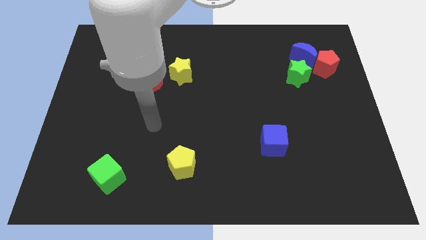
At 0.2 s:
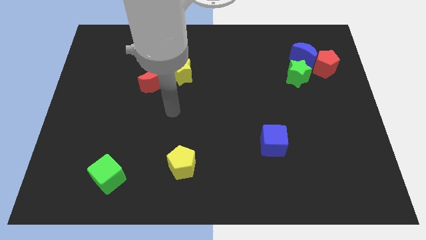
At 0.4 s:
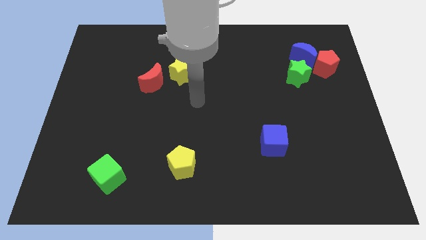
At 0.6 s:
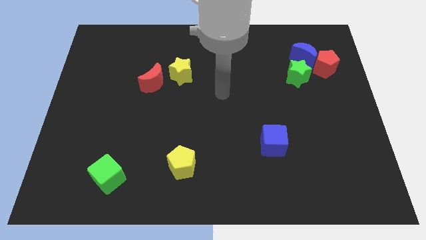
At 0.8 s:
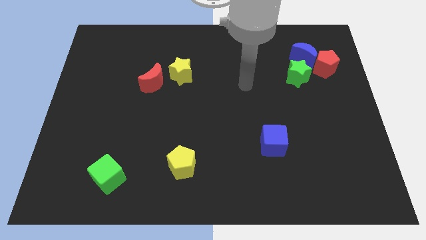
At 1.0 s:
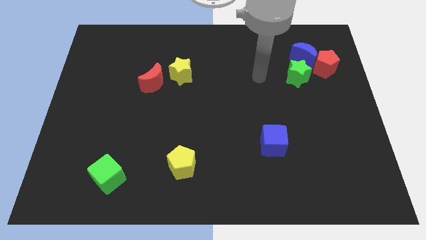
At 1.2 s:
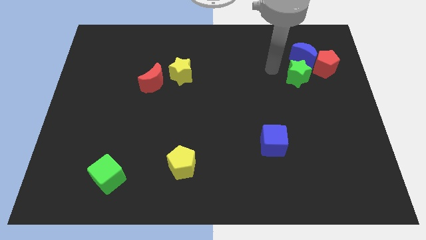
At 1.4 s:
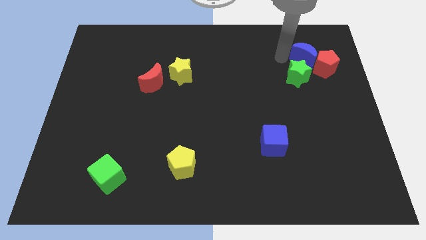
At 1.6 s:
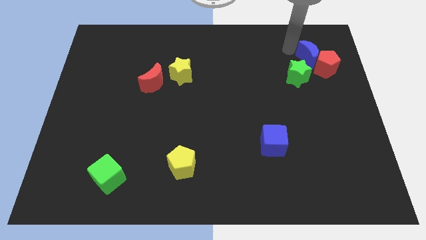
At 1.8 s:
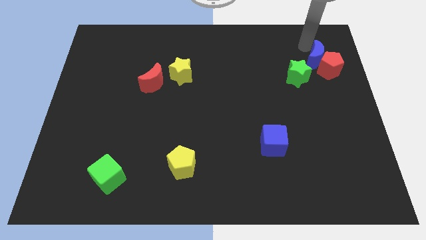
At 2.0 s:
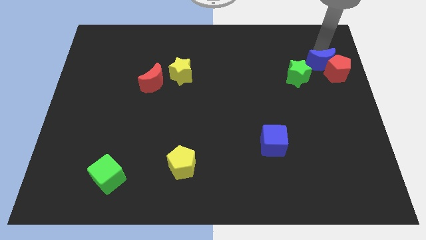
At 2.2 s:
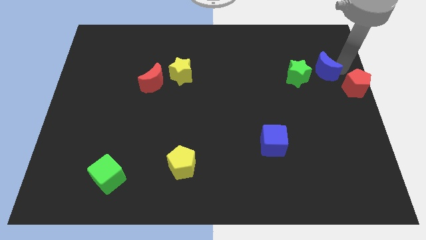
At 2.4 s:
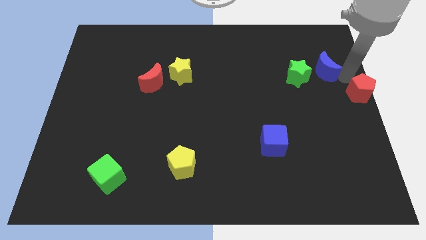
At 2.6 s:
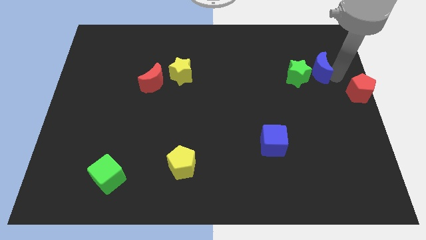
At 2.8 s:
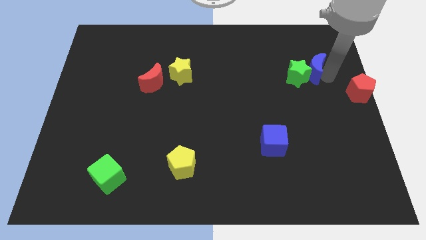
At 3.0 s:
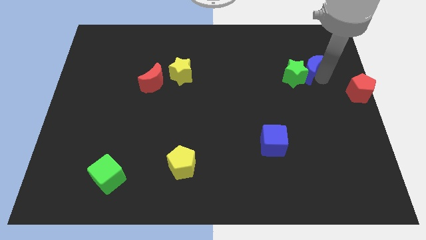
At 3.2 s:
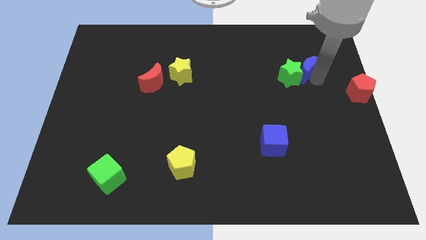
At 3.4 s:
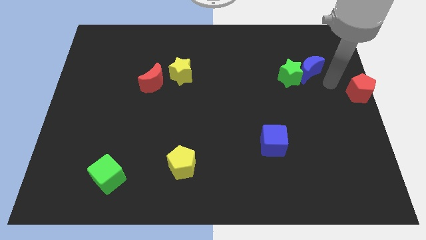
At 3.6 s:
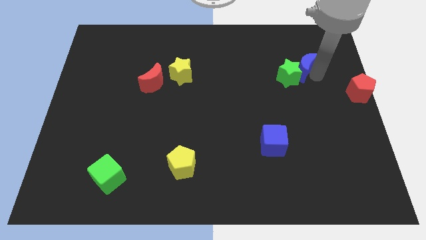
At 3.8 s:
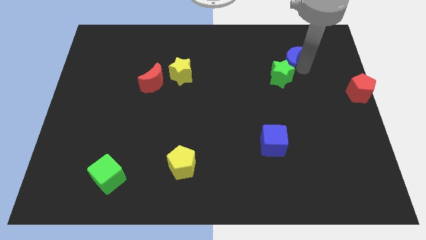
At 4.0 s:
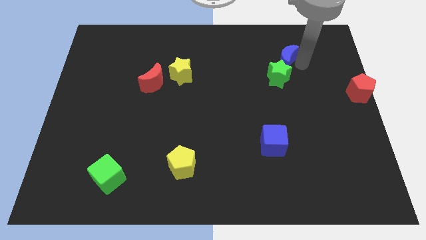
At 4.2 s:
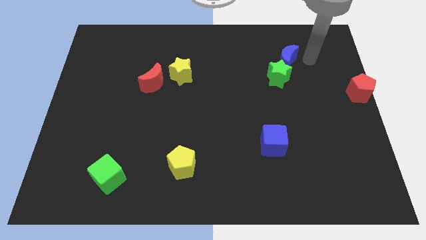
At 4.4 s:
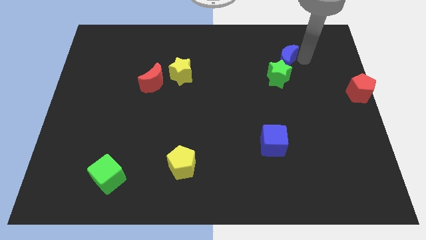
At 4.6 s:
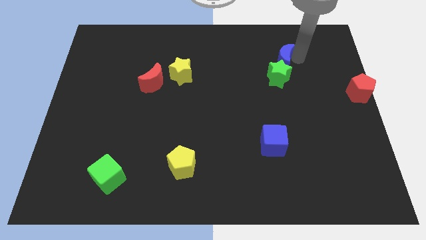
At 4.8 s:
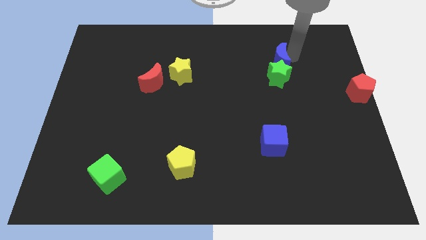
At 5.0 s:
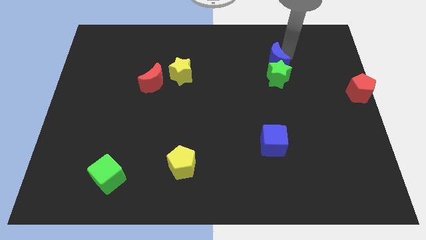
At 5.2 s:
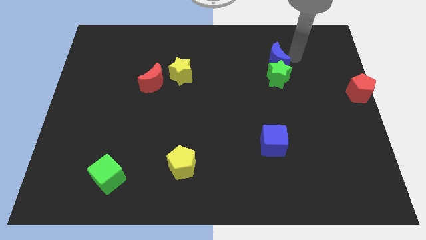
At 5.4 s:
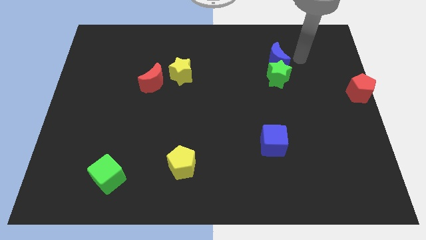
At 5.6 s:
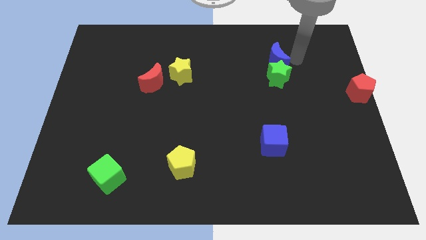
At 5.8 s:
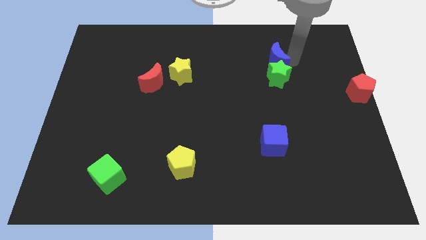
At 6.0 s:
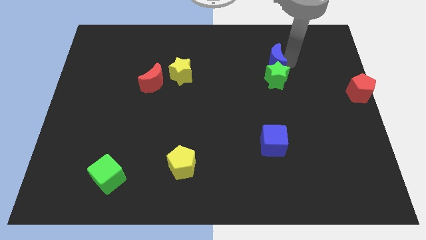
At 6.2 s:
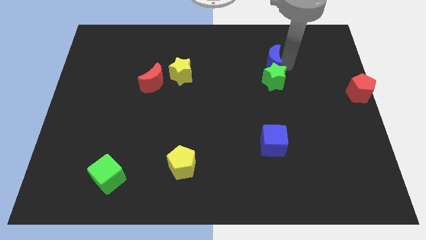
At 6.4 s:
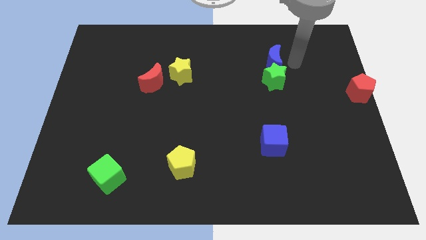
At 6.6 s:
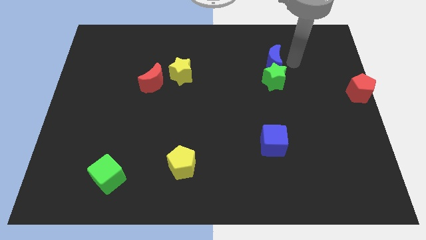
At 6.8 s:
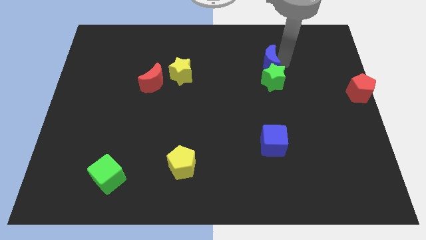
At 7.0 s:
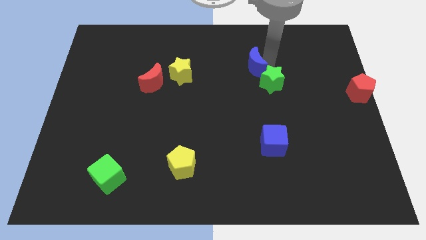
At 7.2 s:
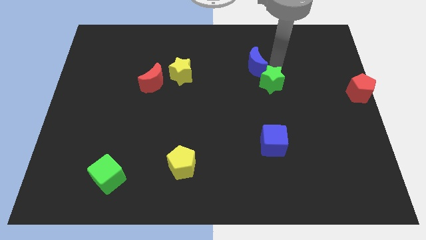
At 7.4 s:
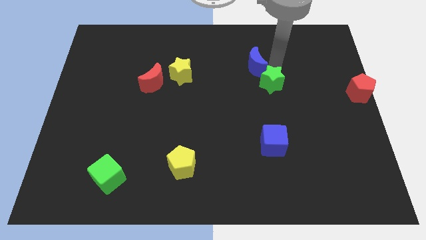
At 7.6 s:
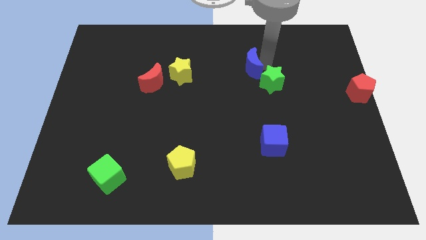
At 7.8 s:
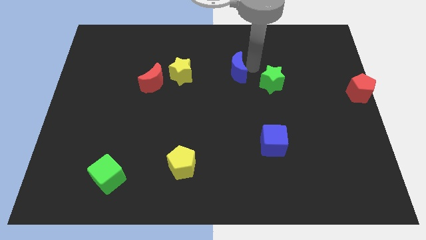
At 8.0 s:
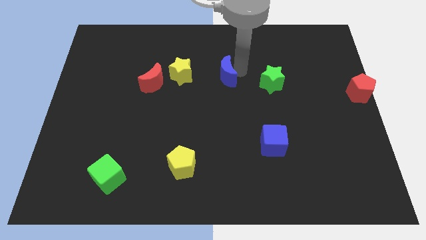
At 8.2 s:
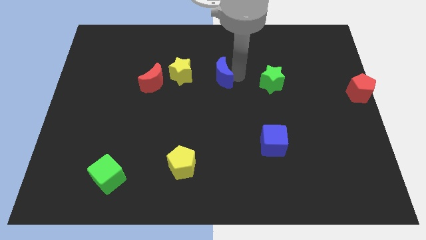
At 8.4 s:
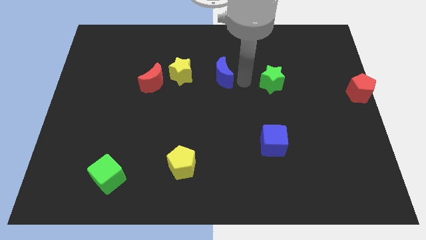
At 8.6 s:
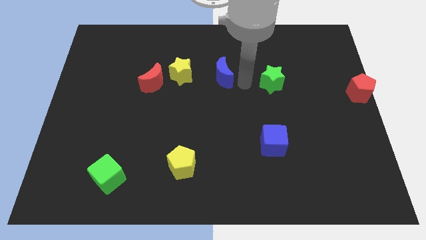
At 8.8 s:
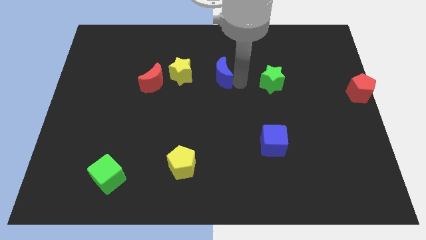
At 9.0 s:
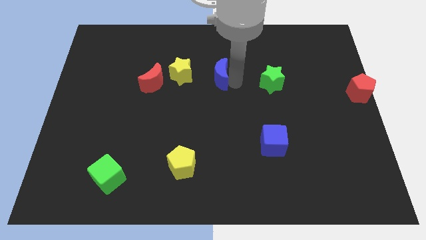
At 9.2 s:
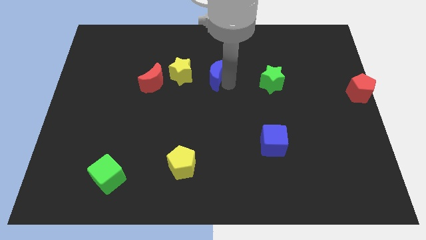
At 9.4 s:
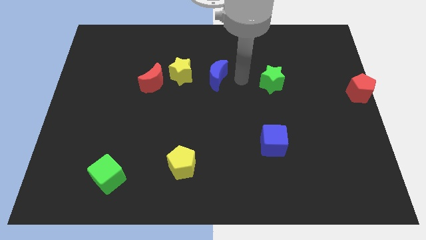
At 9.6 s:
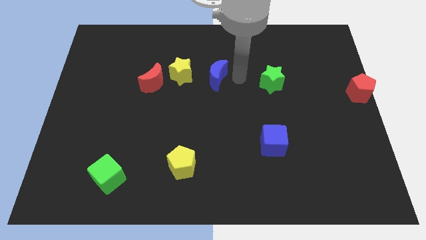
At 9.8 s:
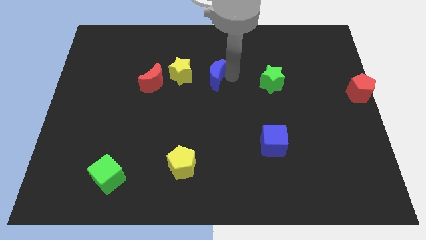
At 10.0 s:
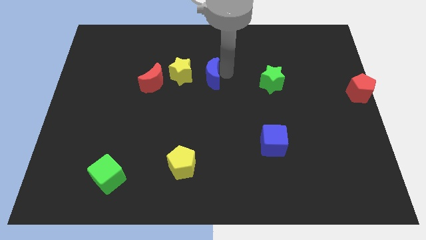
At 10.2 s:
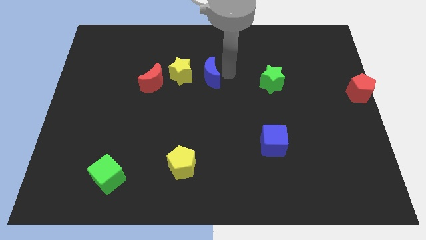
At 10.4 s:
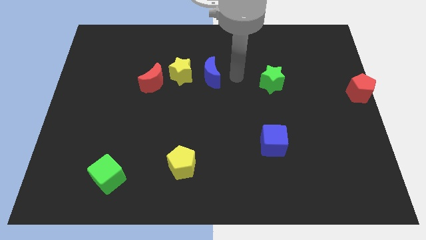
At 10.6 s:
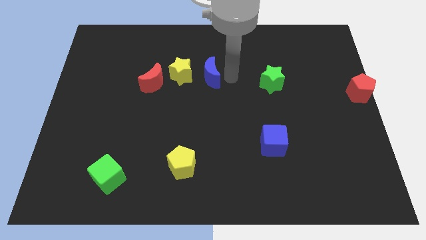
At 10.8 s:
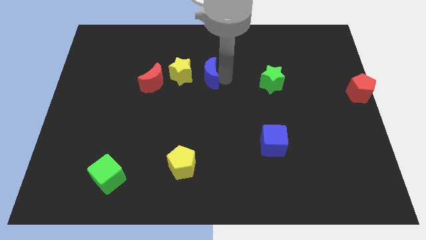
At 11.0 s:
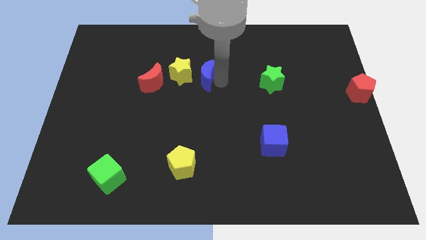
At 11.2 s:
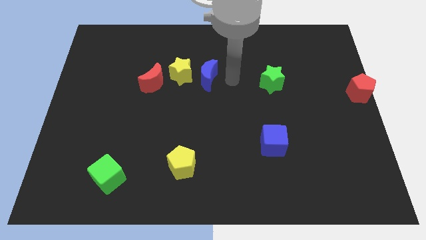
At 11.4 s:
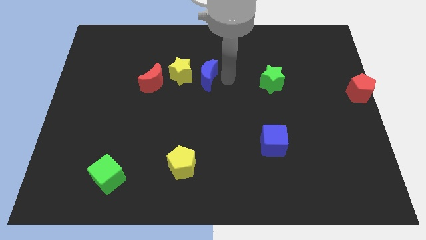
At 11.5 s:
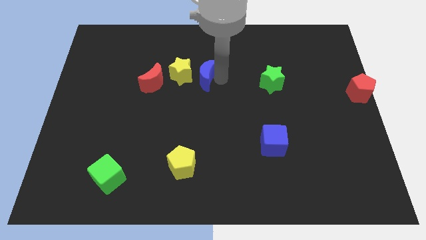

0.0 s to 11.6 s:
push the blue moon towards the yellow star

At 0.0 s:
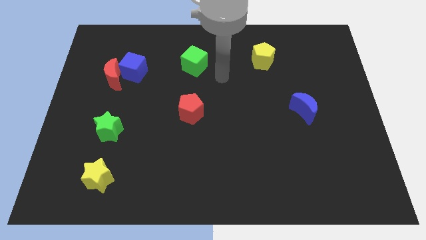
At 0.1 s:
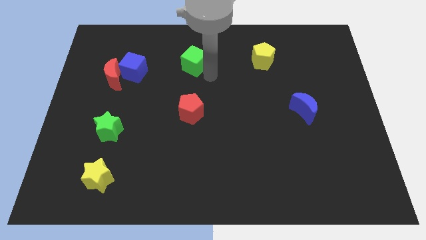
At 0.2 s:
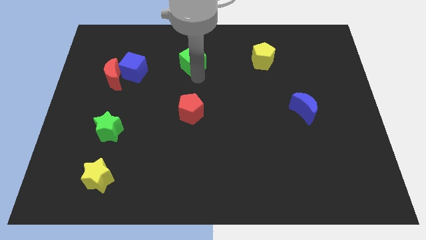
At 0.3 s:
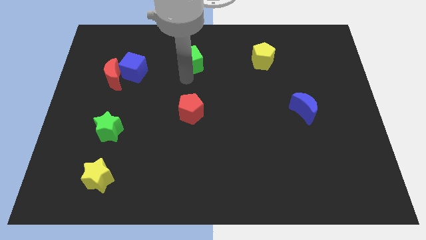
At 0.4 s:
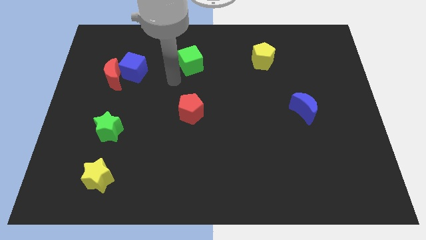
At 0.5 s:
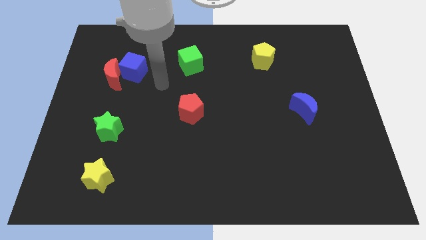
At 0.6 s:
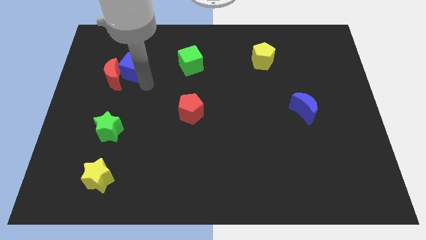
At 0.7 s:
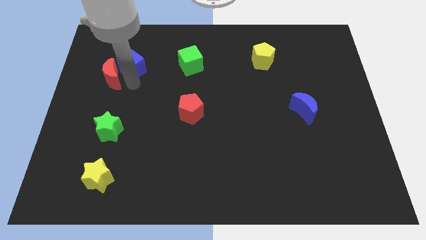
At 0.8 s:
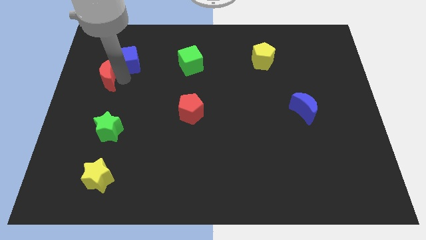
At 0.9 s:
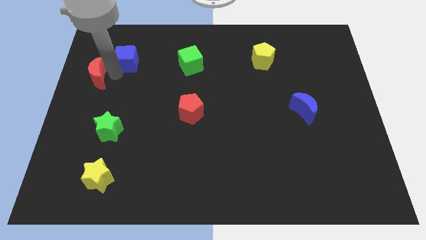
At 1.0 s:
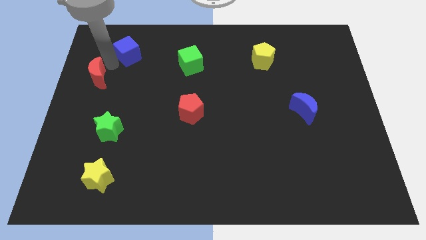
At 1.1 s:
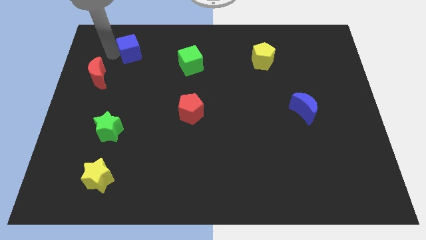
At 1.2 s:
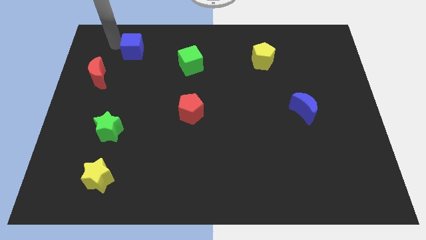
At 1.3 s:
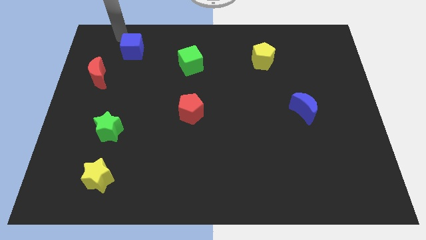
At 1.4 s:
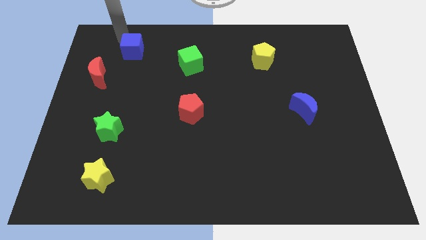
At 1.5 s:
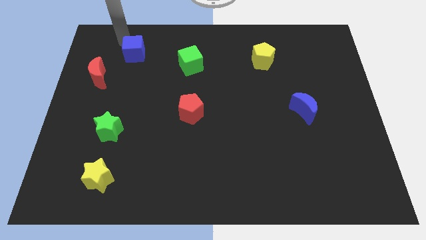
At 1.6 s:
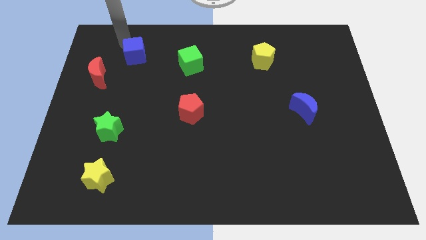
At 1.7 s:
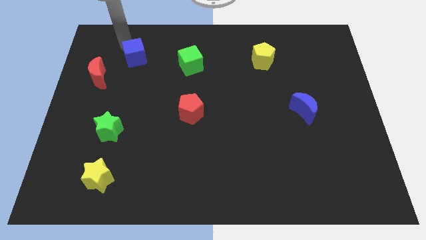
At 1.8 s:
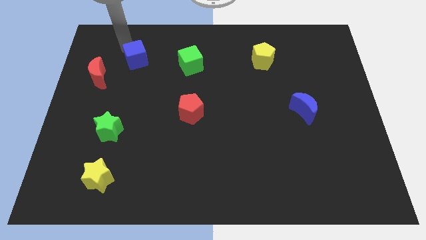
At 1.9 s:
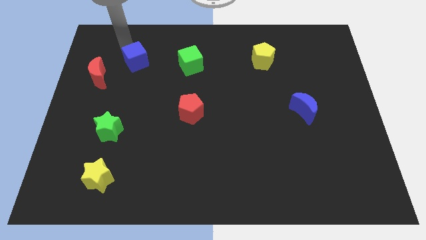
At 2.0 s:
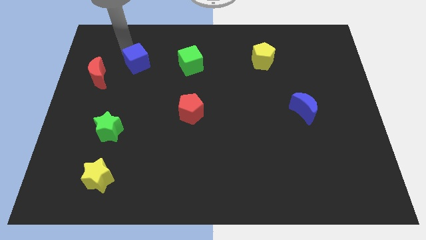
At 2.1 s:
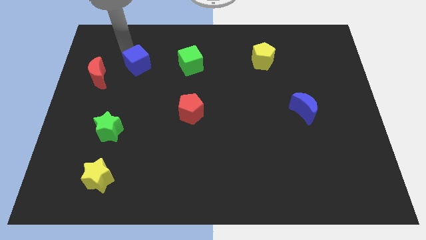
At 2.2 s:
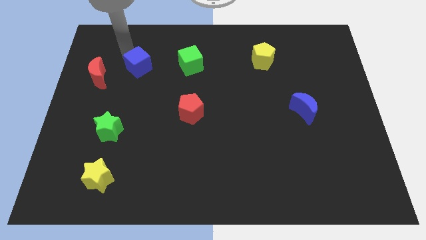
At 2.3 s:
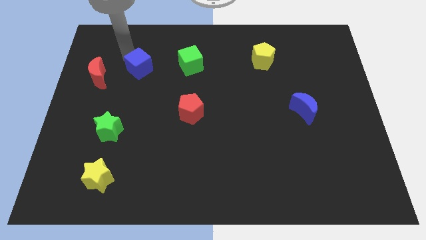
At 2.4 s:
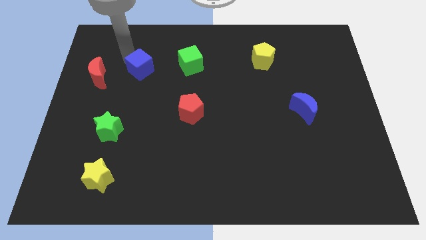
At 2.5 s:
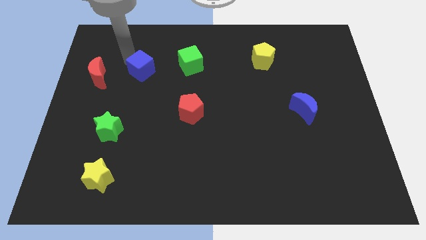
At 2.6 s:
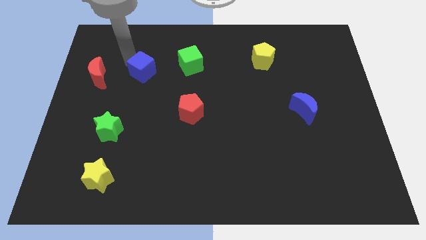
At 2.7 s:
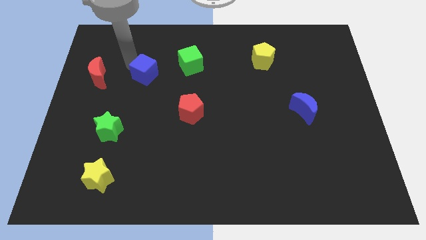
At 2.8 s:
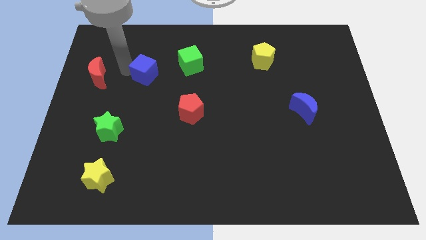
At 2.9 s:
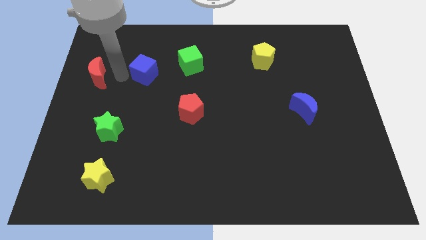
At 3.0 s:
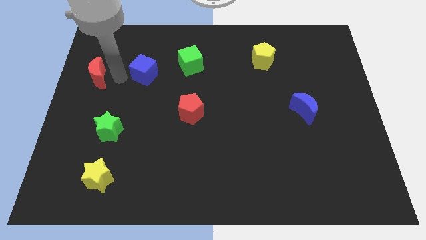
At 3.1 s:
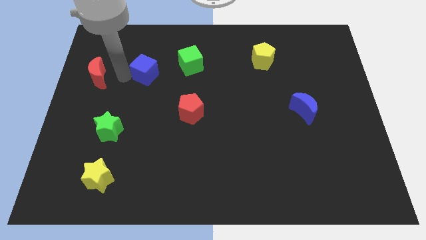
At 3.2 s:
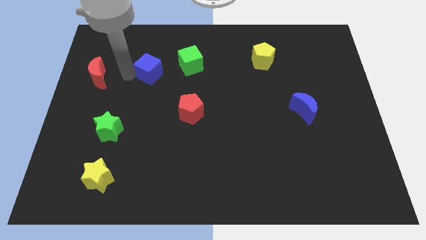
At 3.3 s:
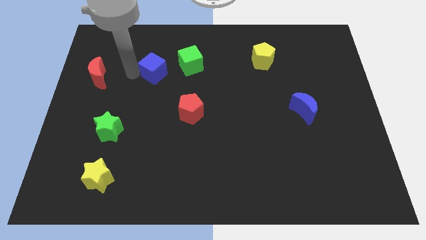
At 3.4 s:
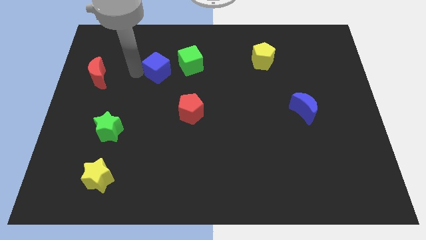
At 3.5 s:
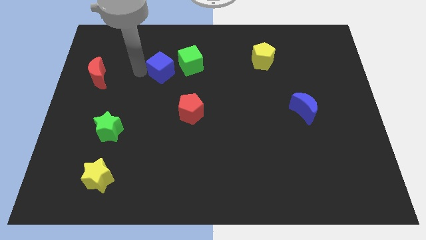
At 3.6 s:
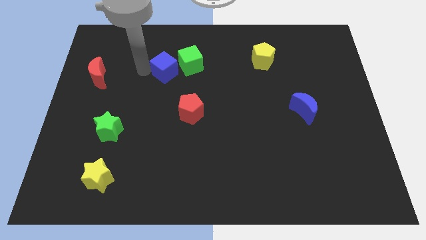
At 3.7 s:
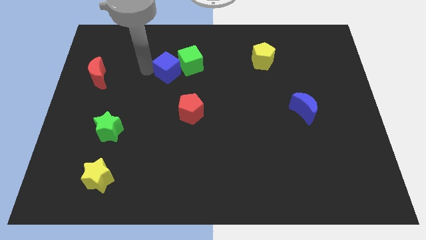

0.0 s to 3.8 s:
move the blue cube towards the green cube
